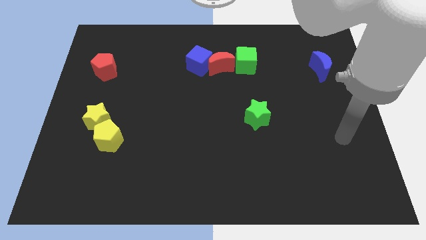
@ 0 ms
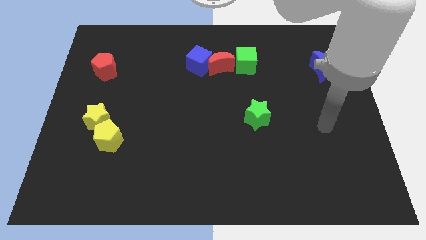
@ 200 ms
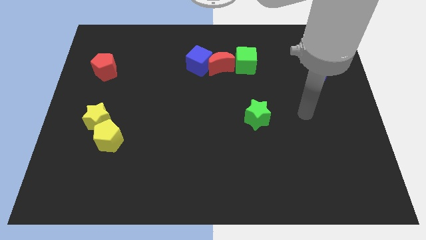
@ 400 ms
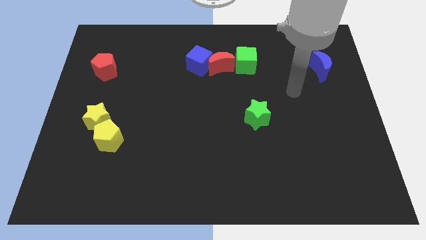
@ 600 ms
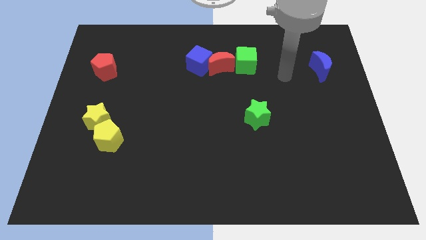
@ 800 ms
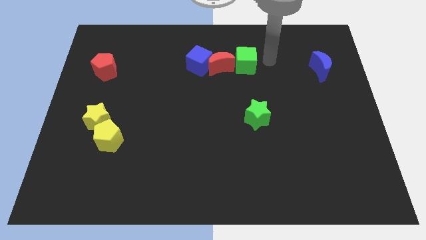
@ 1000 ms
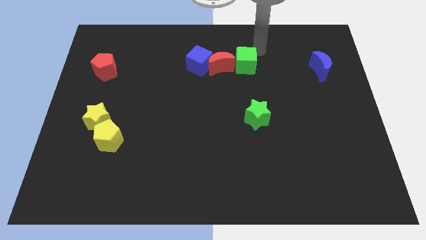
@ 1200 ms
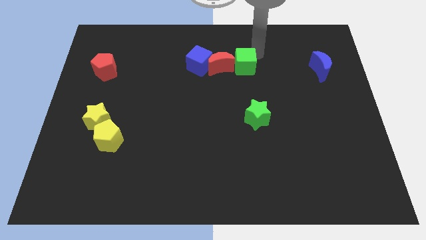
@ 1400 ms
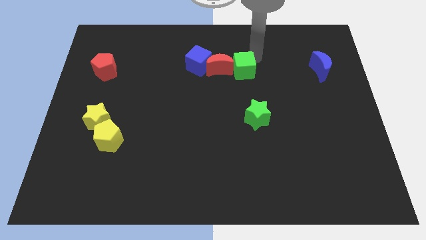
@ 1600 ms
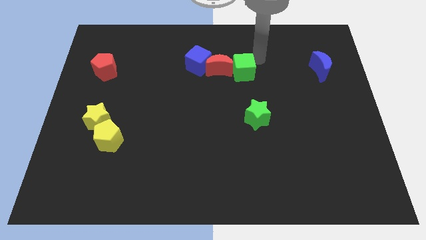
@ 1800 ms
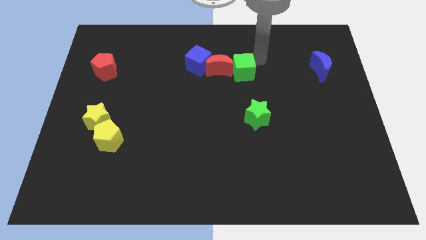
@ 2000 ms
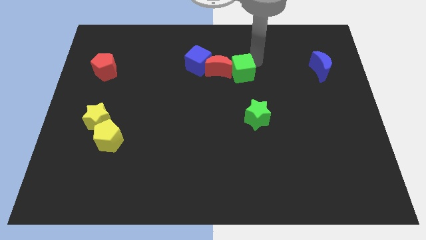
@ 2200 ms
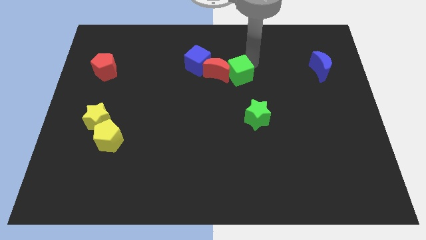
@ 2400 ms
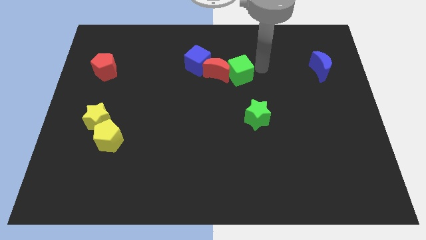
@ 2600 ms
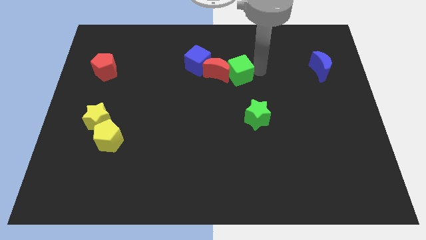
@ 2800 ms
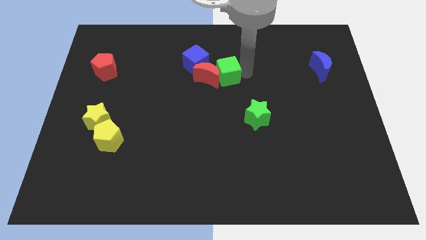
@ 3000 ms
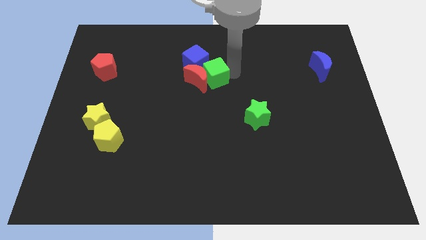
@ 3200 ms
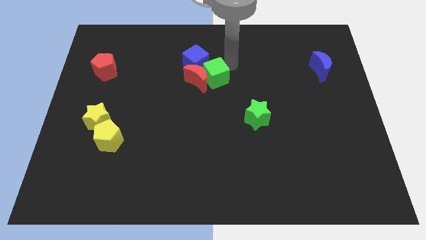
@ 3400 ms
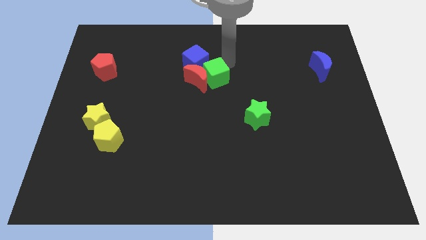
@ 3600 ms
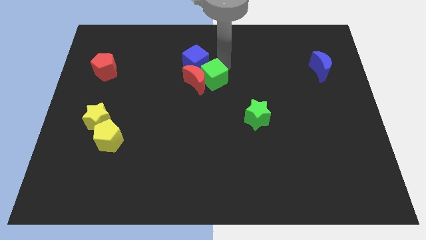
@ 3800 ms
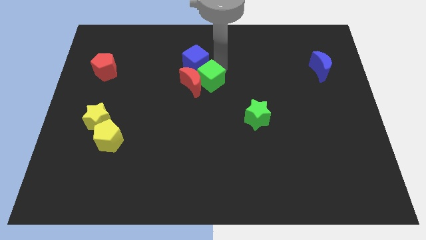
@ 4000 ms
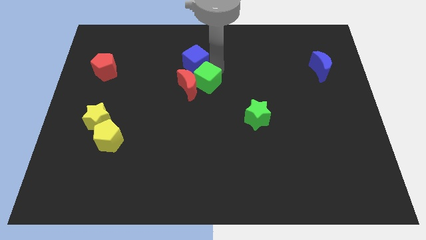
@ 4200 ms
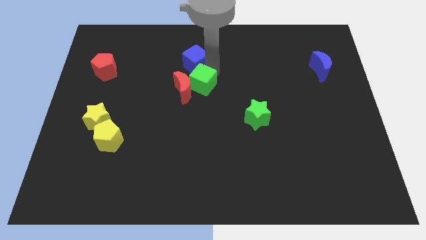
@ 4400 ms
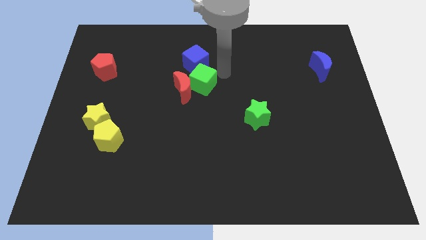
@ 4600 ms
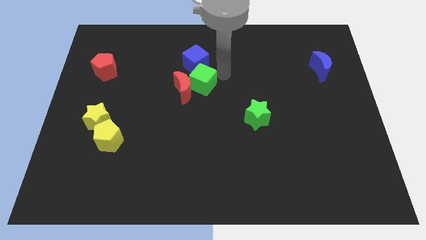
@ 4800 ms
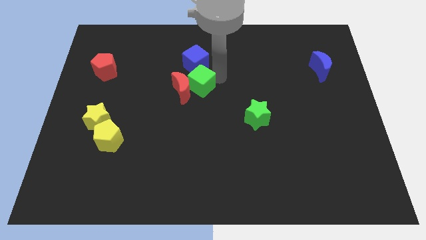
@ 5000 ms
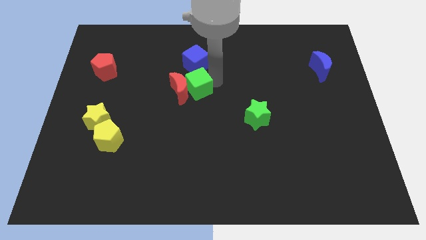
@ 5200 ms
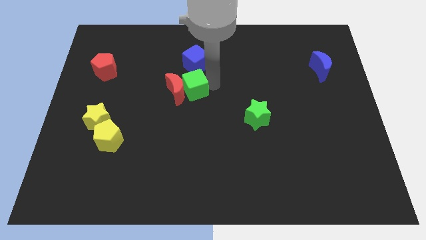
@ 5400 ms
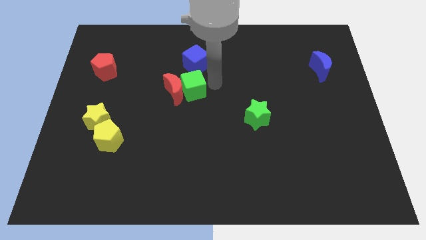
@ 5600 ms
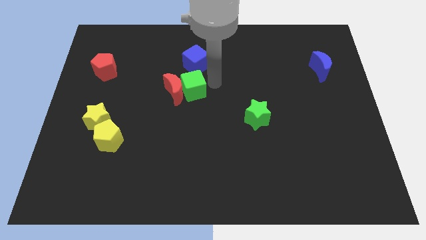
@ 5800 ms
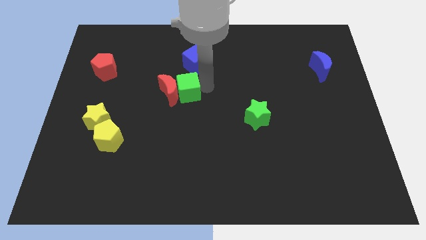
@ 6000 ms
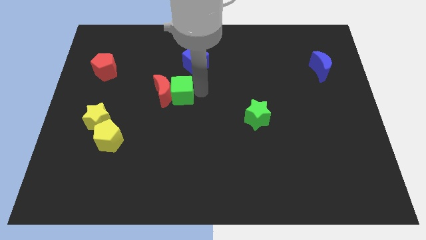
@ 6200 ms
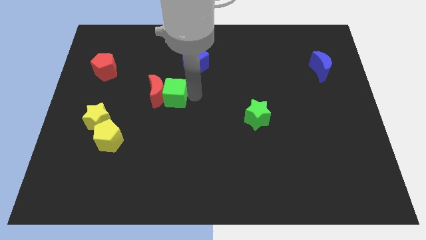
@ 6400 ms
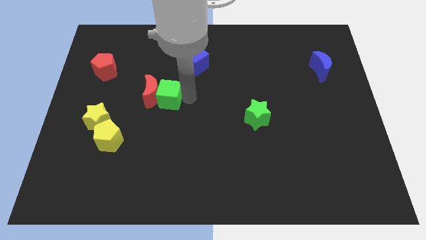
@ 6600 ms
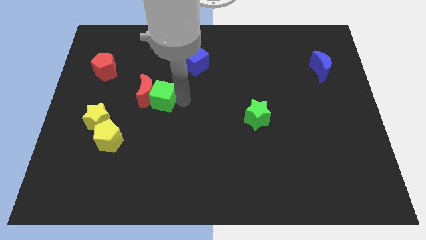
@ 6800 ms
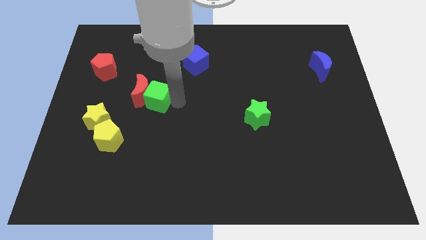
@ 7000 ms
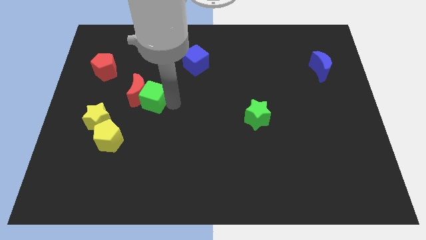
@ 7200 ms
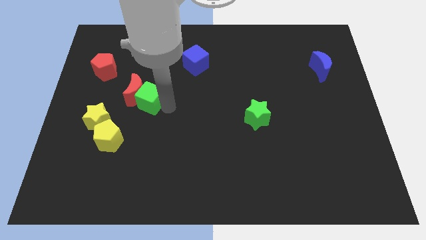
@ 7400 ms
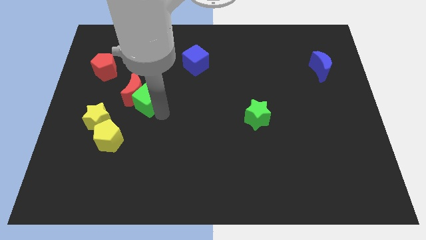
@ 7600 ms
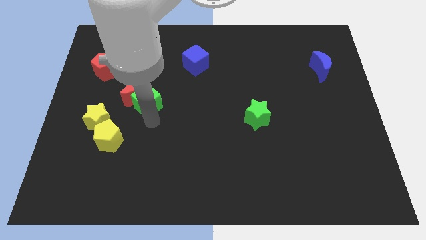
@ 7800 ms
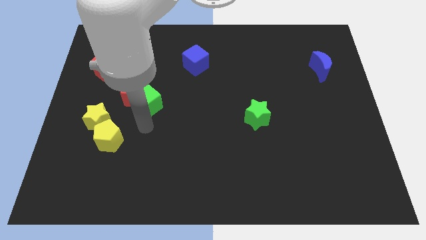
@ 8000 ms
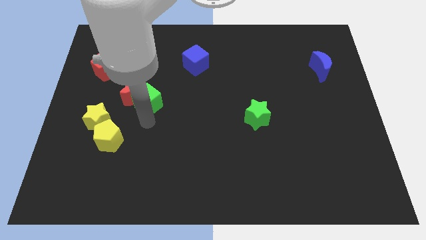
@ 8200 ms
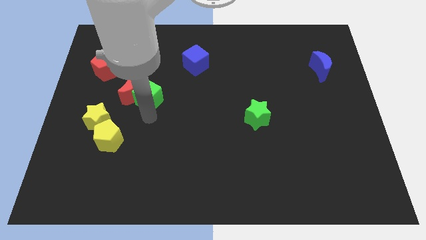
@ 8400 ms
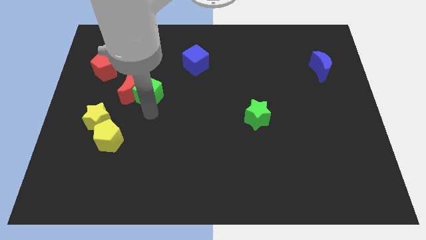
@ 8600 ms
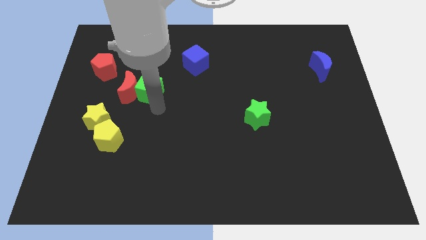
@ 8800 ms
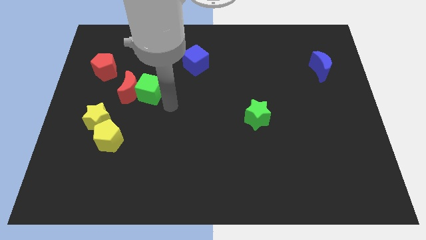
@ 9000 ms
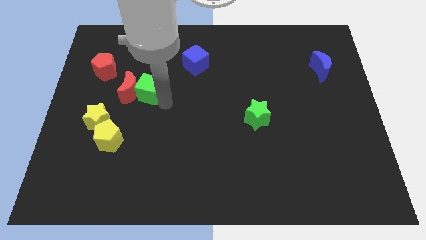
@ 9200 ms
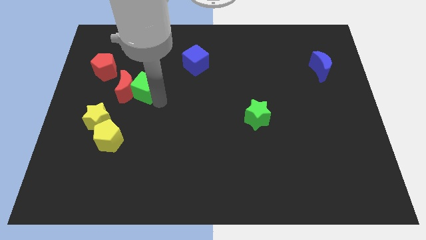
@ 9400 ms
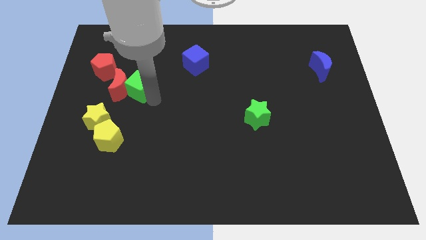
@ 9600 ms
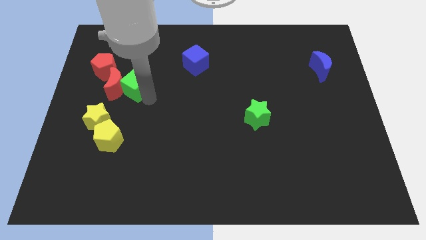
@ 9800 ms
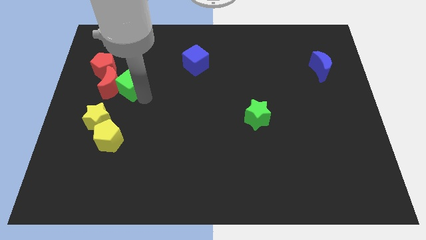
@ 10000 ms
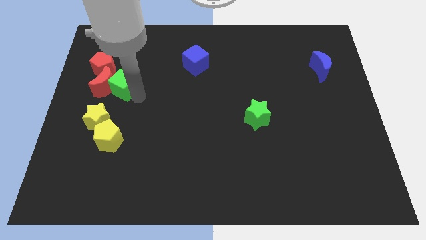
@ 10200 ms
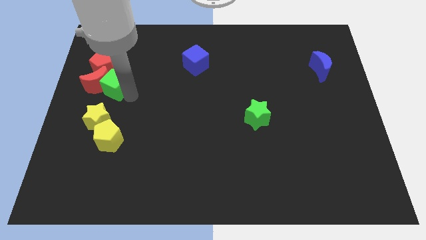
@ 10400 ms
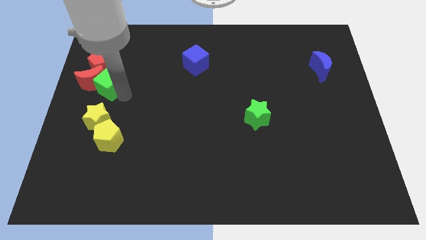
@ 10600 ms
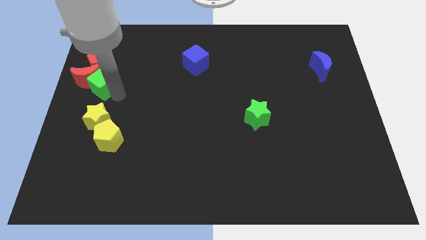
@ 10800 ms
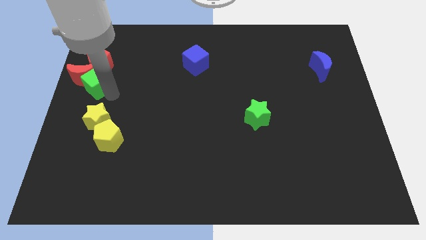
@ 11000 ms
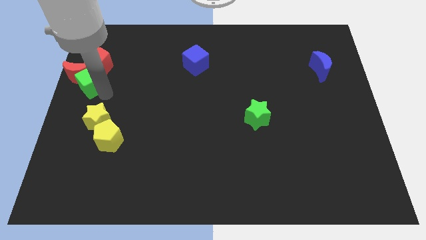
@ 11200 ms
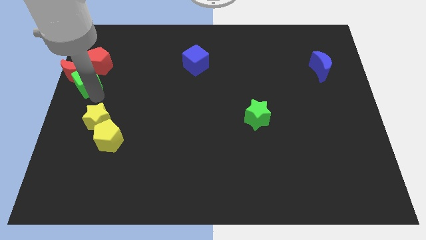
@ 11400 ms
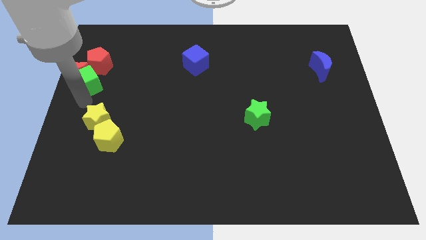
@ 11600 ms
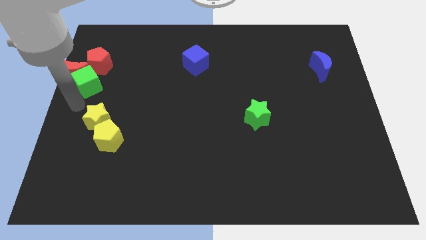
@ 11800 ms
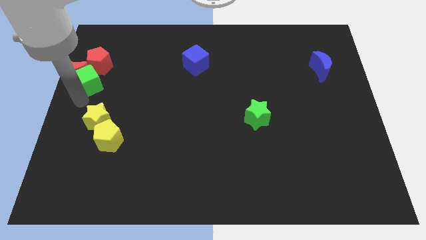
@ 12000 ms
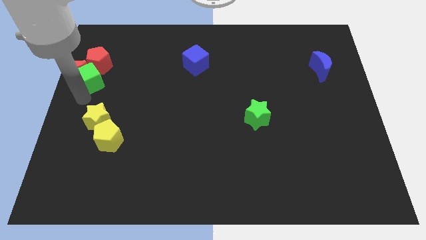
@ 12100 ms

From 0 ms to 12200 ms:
slide the green cube close to the red pentagon

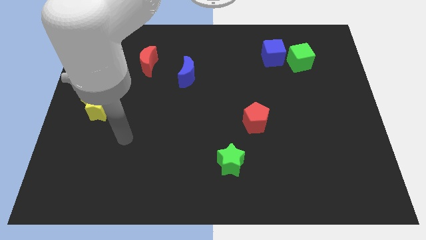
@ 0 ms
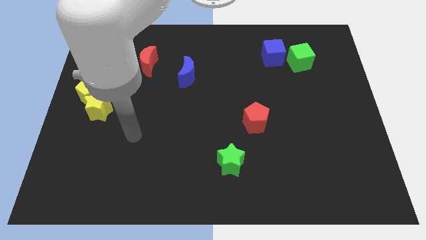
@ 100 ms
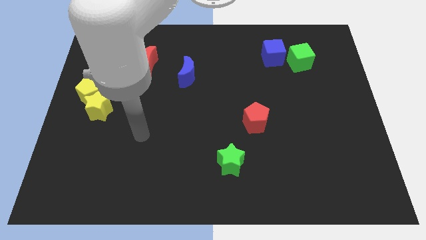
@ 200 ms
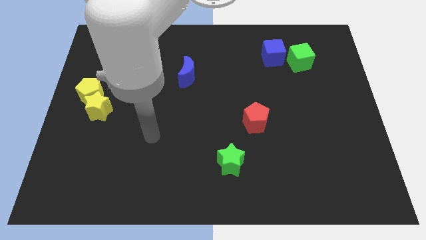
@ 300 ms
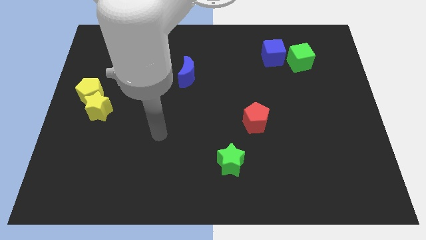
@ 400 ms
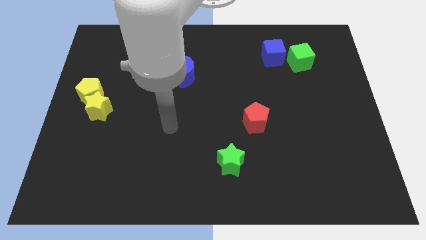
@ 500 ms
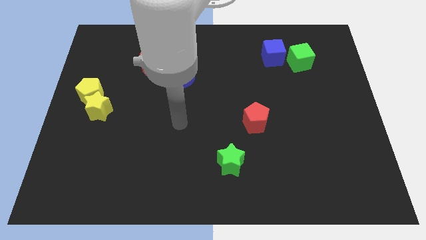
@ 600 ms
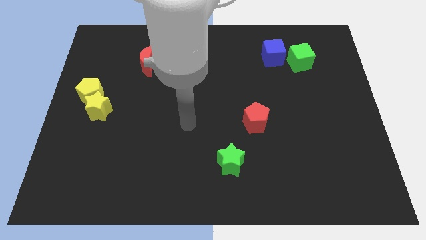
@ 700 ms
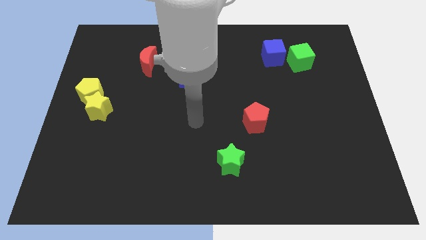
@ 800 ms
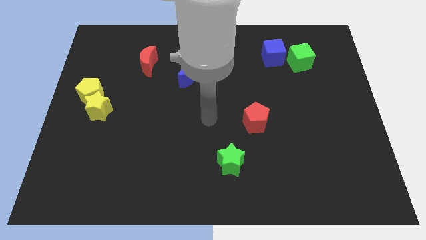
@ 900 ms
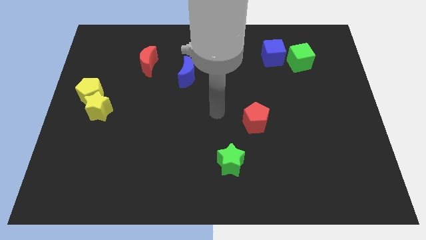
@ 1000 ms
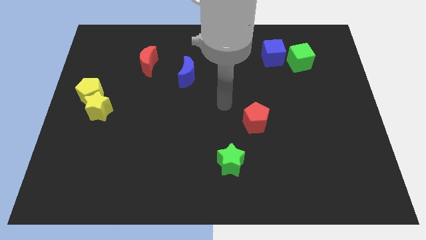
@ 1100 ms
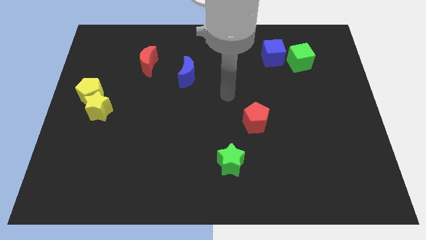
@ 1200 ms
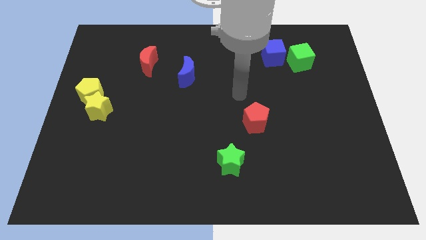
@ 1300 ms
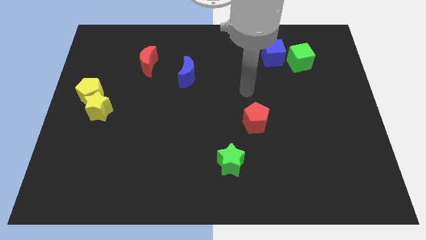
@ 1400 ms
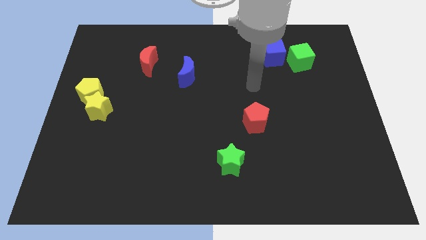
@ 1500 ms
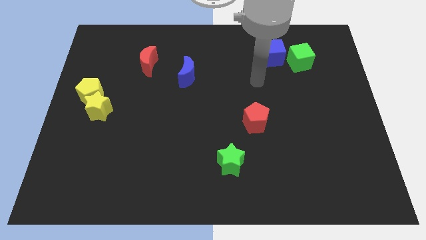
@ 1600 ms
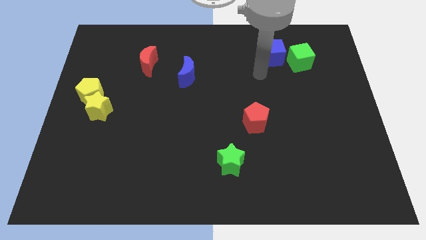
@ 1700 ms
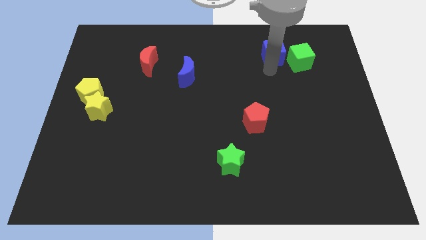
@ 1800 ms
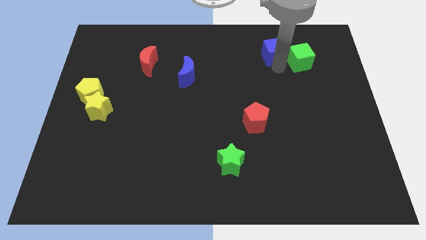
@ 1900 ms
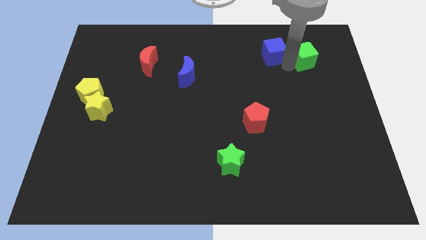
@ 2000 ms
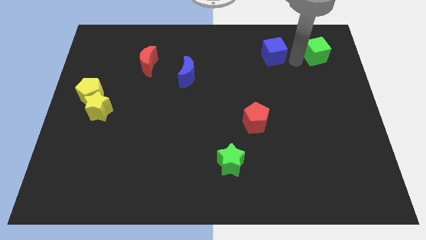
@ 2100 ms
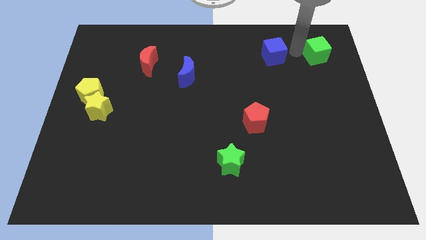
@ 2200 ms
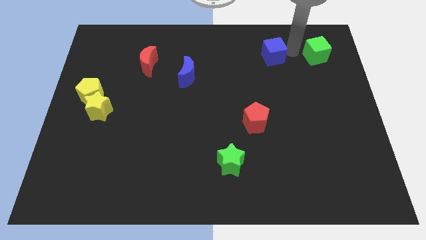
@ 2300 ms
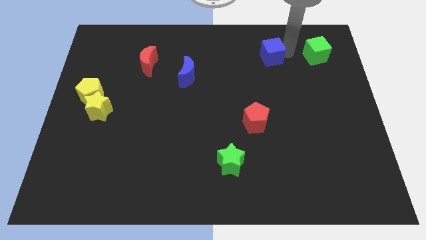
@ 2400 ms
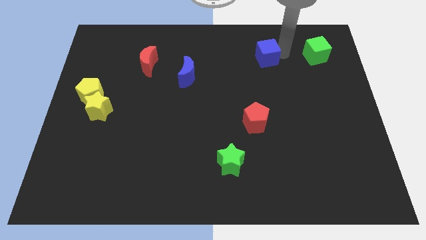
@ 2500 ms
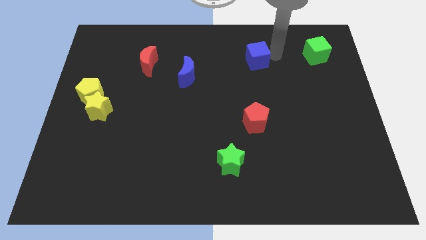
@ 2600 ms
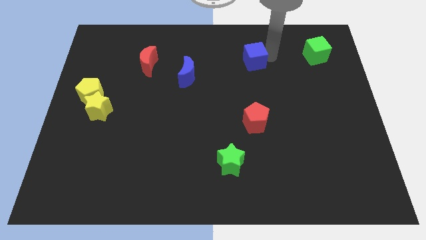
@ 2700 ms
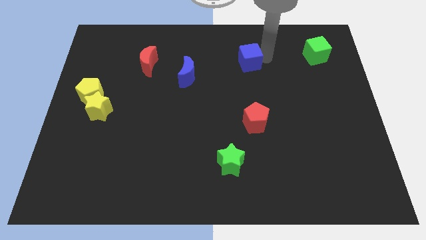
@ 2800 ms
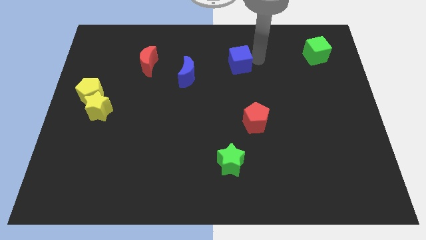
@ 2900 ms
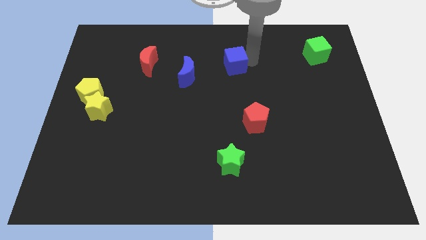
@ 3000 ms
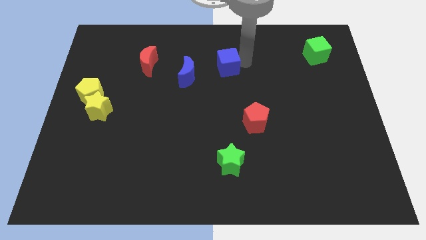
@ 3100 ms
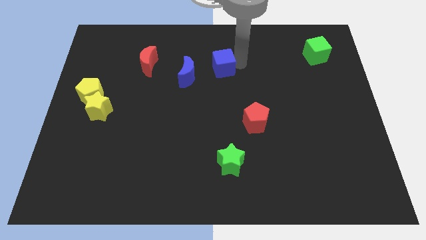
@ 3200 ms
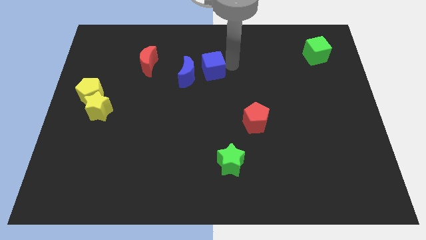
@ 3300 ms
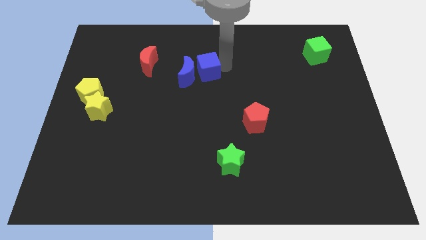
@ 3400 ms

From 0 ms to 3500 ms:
put the blue cube to the blue moon
